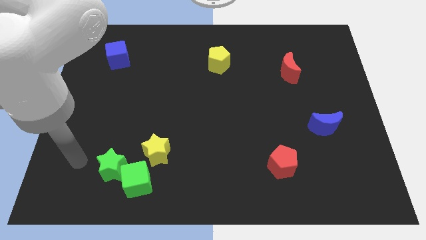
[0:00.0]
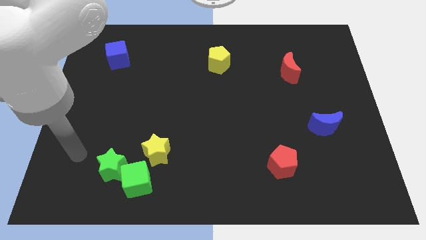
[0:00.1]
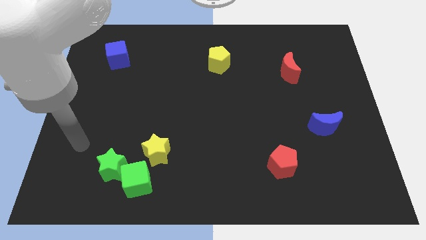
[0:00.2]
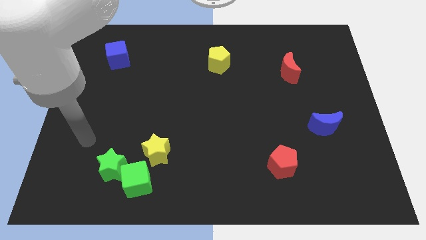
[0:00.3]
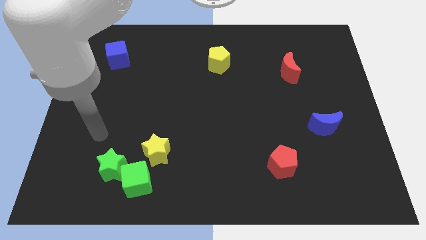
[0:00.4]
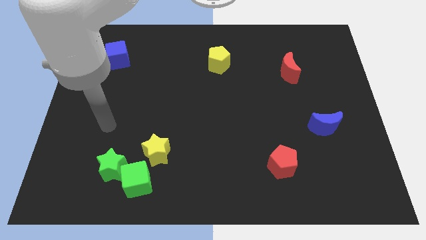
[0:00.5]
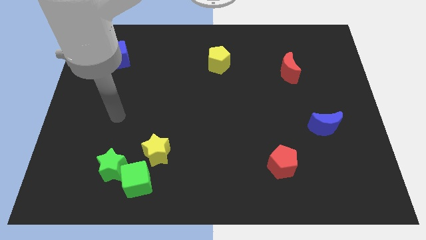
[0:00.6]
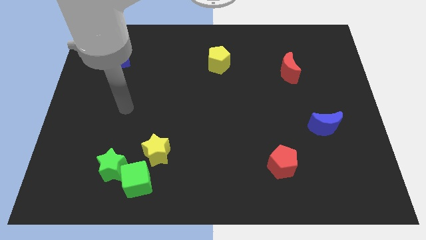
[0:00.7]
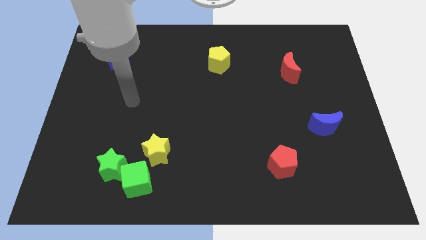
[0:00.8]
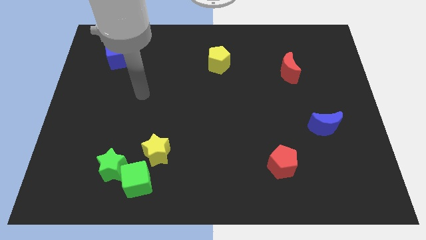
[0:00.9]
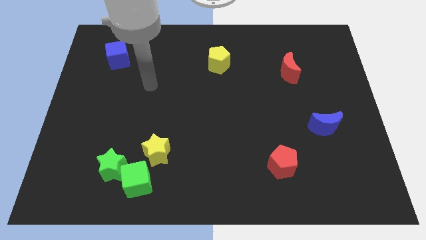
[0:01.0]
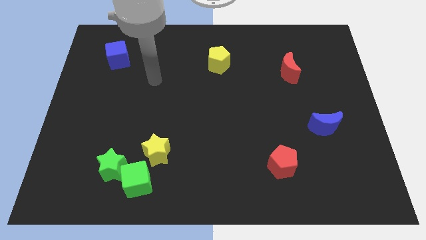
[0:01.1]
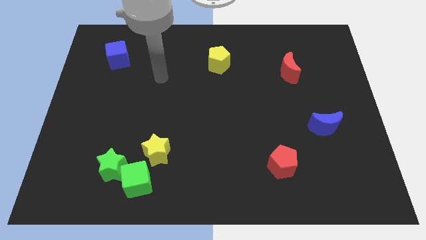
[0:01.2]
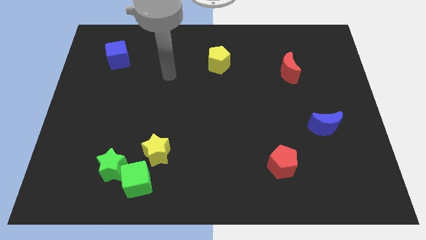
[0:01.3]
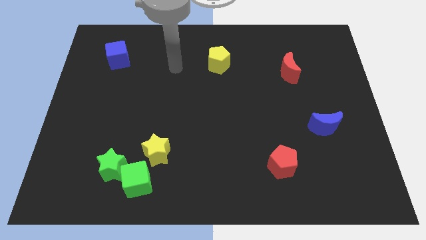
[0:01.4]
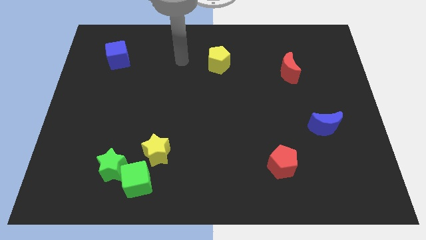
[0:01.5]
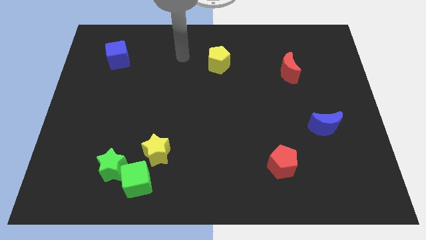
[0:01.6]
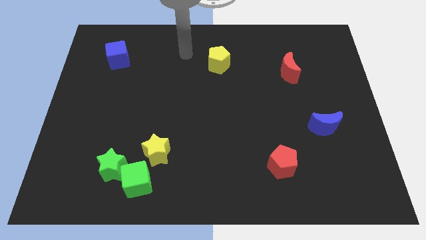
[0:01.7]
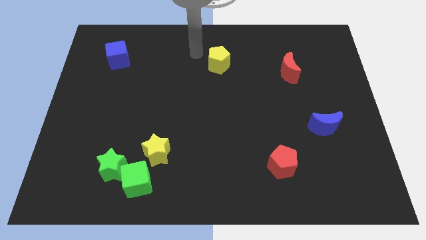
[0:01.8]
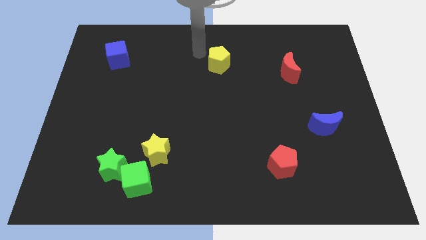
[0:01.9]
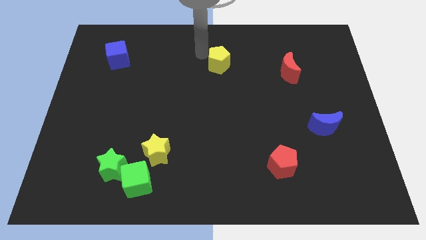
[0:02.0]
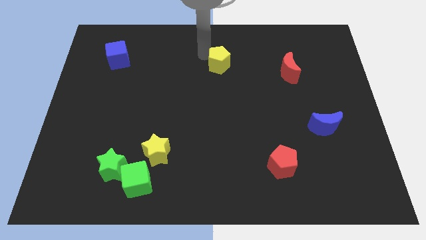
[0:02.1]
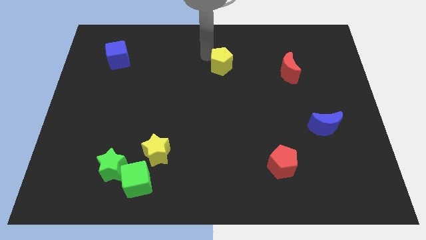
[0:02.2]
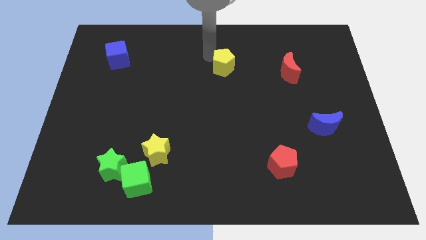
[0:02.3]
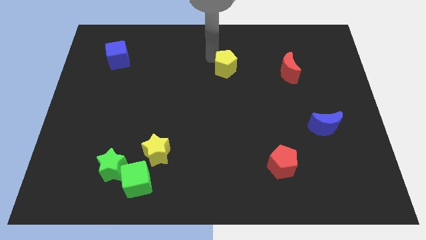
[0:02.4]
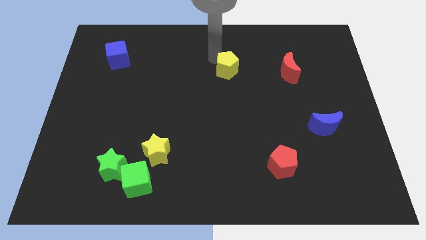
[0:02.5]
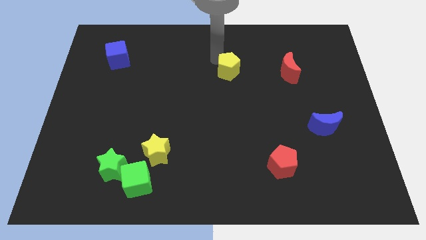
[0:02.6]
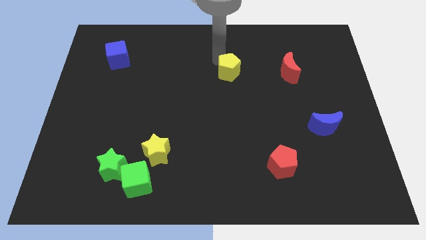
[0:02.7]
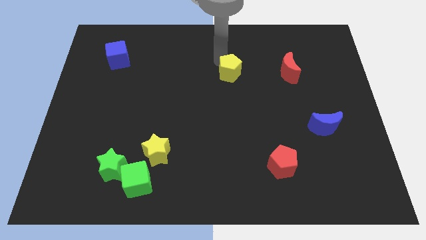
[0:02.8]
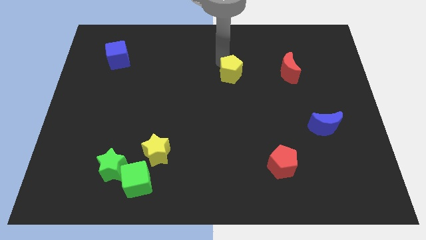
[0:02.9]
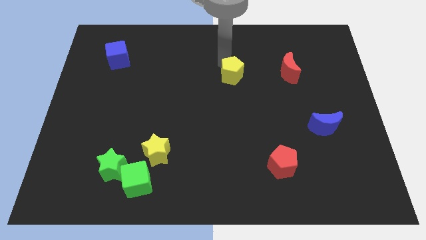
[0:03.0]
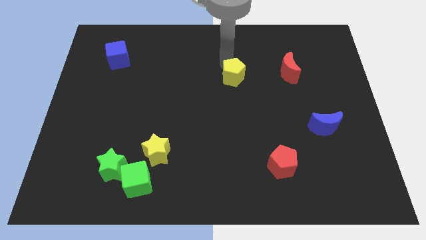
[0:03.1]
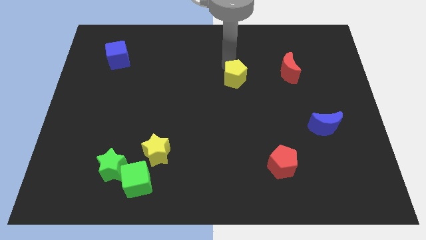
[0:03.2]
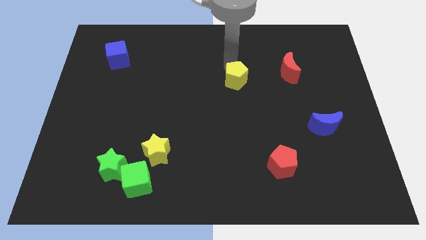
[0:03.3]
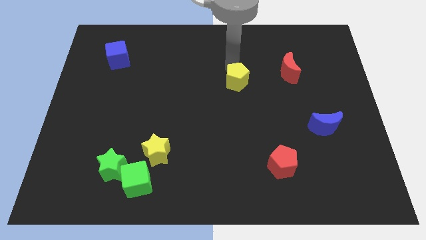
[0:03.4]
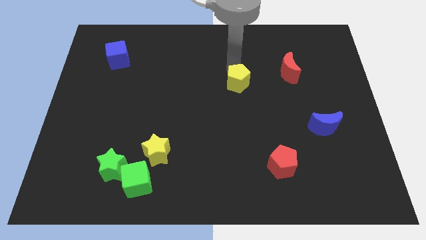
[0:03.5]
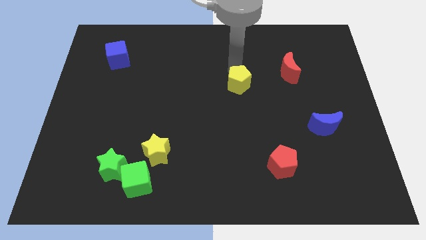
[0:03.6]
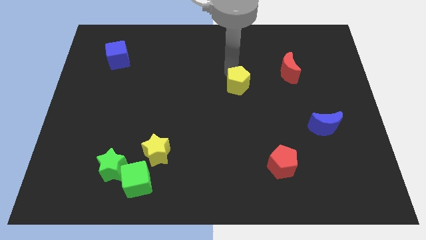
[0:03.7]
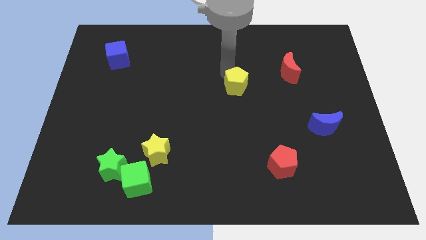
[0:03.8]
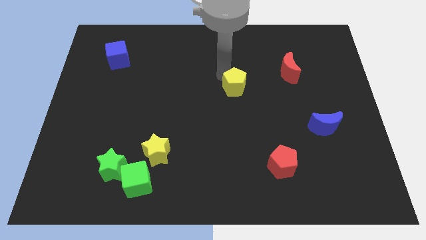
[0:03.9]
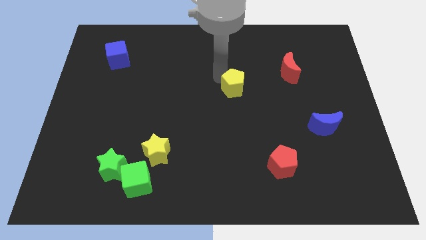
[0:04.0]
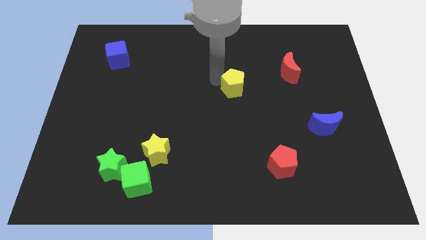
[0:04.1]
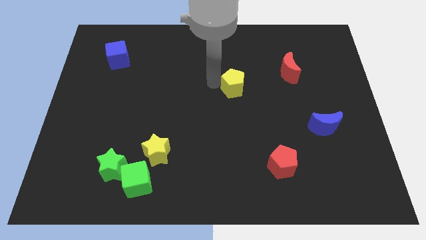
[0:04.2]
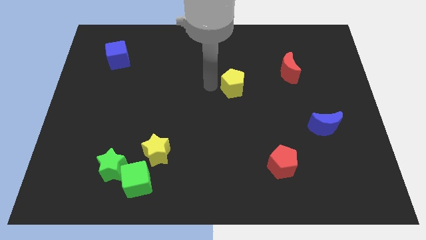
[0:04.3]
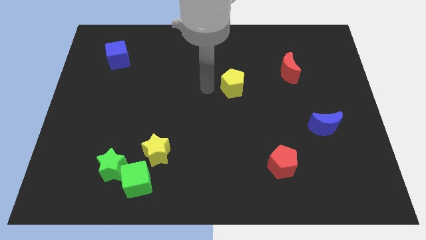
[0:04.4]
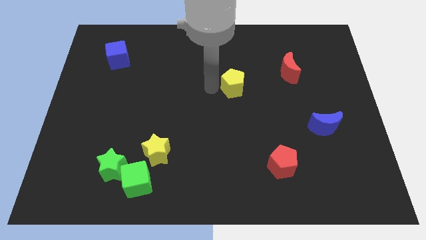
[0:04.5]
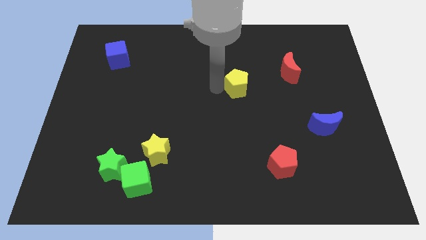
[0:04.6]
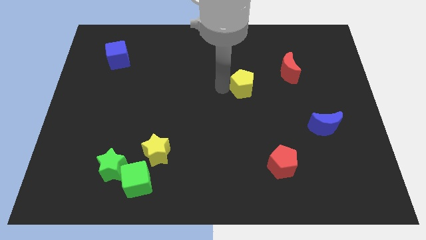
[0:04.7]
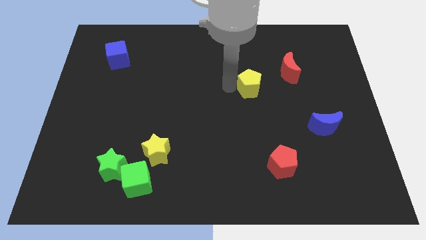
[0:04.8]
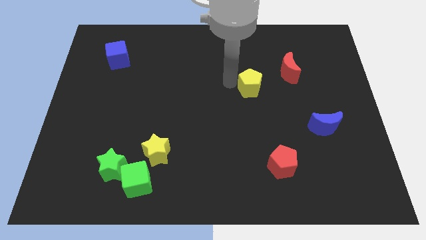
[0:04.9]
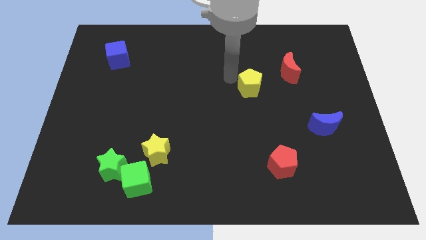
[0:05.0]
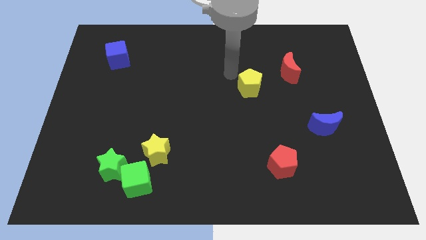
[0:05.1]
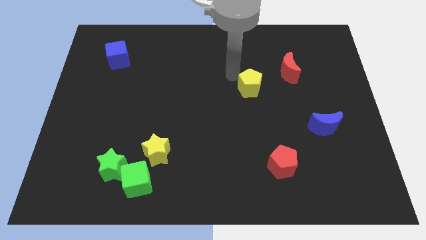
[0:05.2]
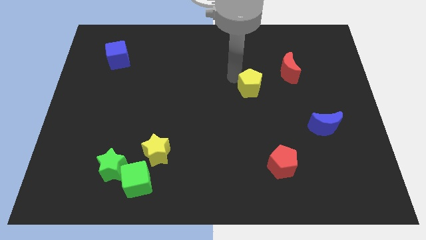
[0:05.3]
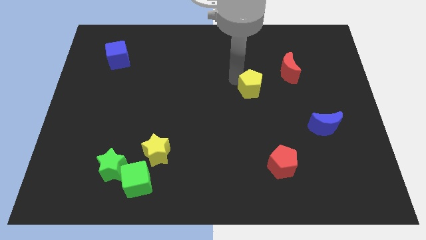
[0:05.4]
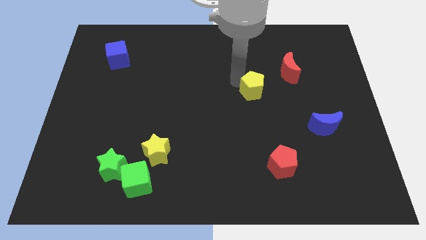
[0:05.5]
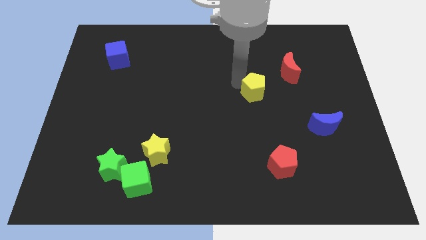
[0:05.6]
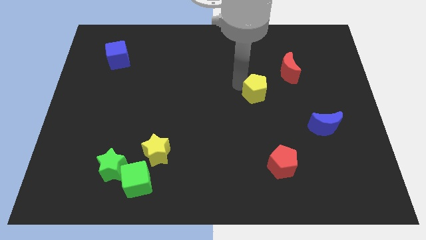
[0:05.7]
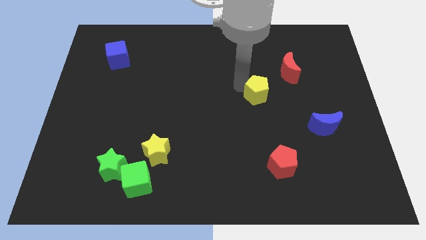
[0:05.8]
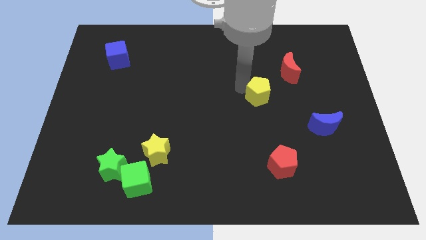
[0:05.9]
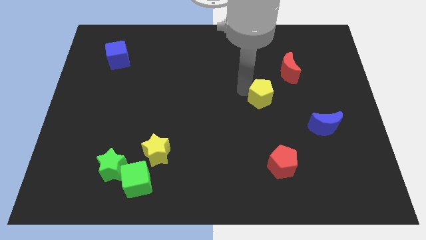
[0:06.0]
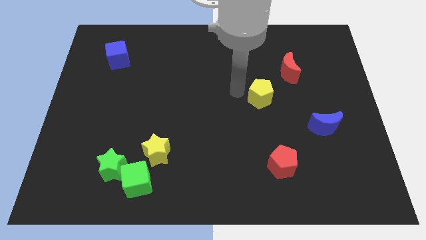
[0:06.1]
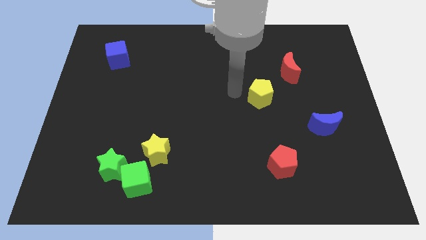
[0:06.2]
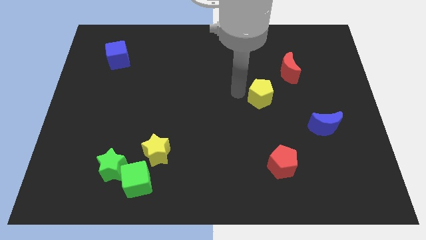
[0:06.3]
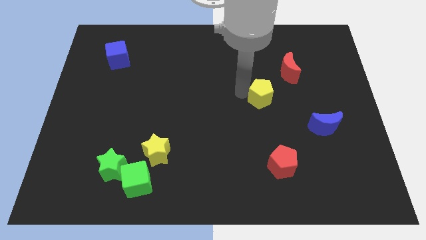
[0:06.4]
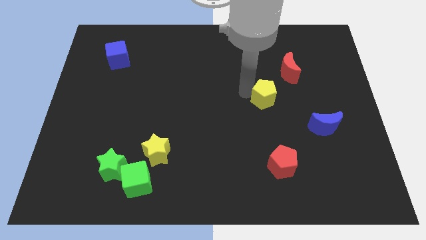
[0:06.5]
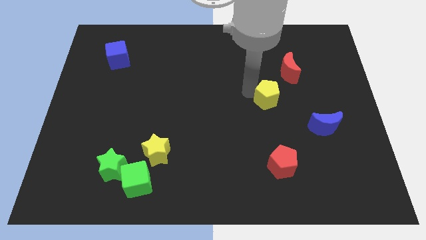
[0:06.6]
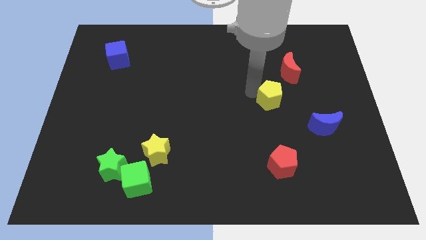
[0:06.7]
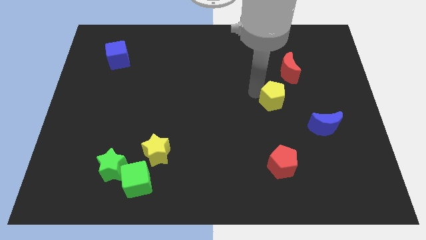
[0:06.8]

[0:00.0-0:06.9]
push the yellow pentagon to the bottom of the red moon

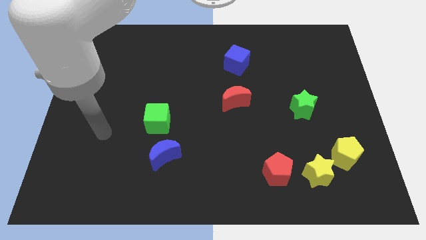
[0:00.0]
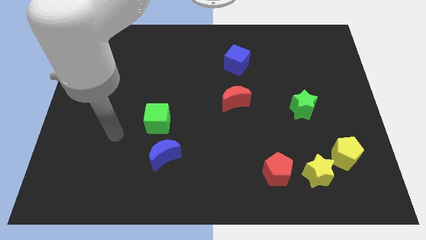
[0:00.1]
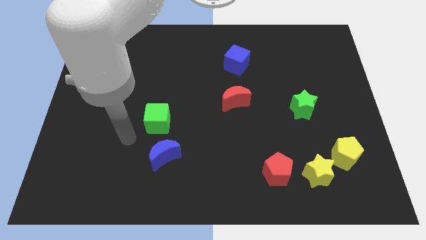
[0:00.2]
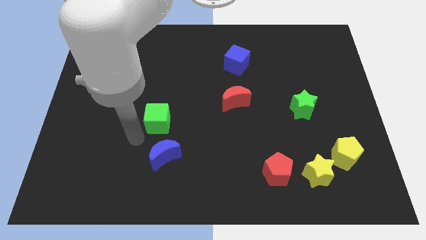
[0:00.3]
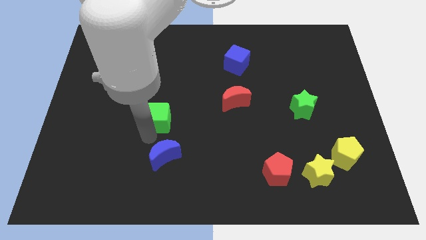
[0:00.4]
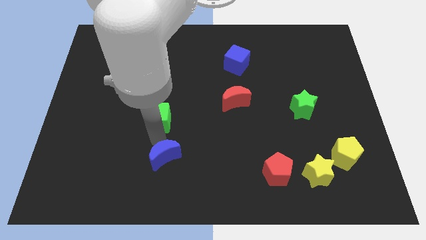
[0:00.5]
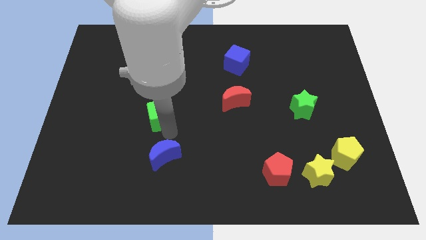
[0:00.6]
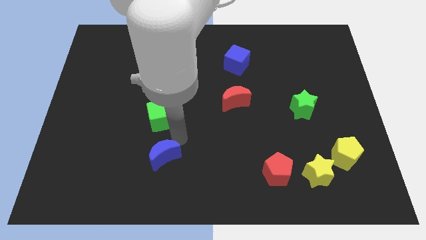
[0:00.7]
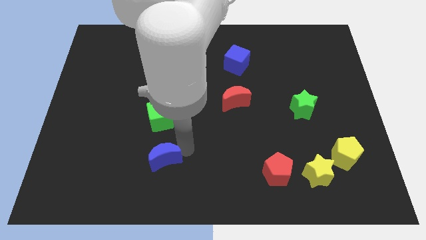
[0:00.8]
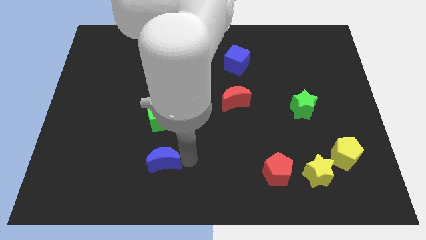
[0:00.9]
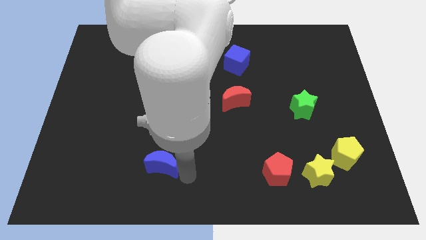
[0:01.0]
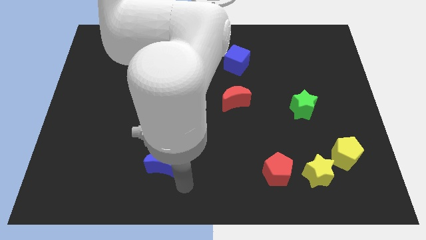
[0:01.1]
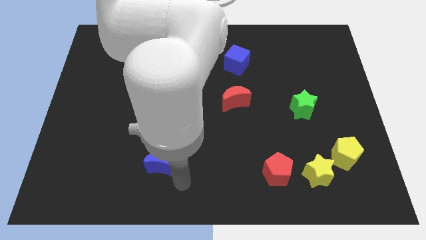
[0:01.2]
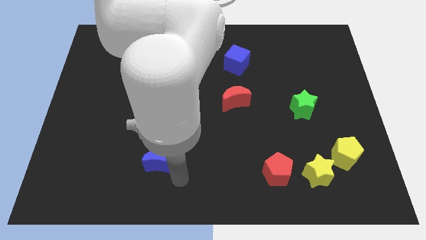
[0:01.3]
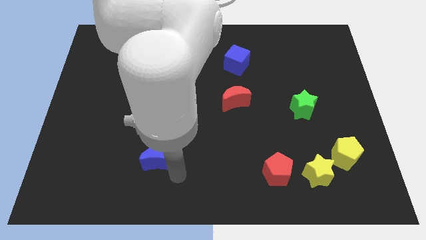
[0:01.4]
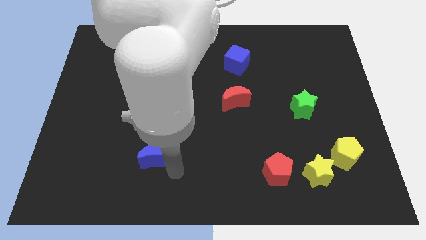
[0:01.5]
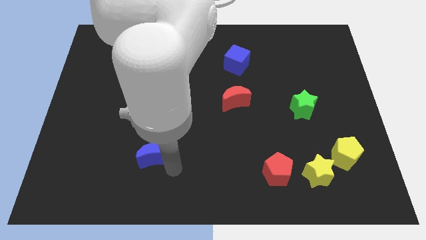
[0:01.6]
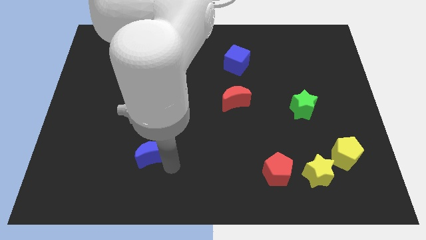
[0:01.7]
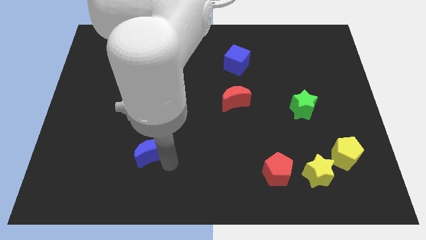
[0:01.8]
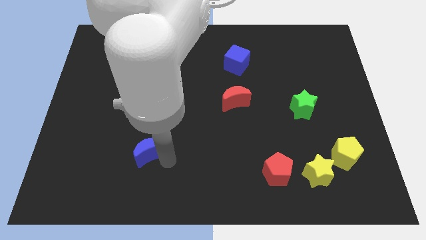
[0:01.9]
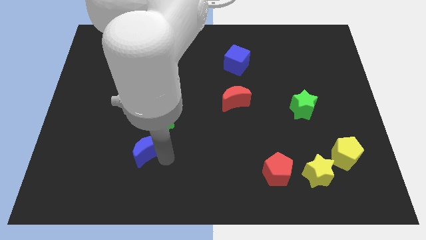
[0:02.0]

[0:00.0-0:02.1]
move the blue moon to the bottom left of the green cube
